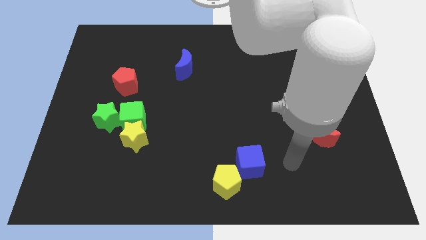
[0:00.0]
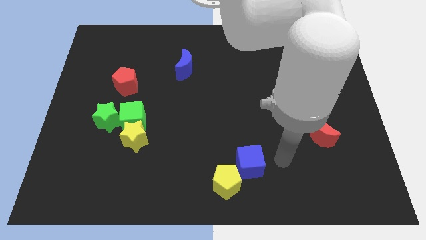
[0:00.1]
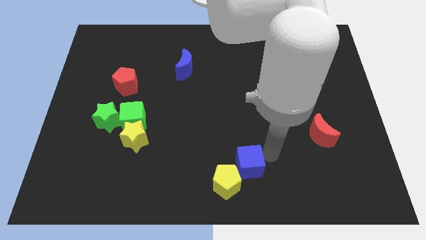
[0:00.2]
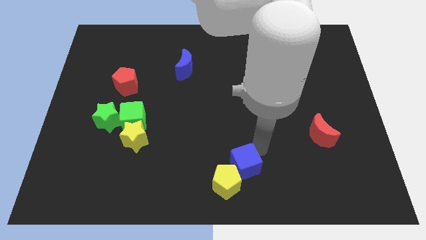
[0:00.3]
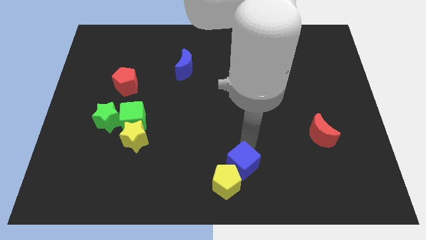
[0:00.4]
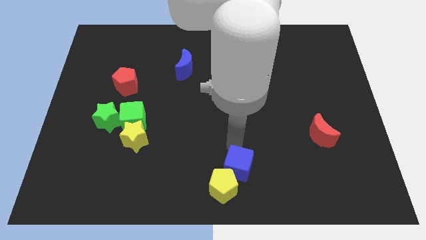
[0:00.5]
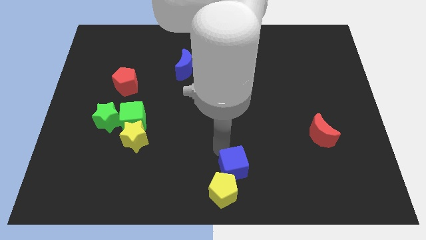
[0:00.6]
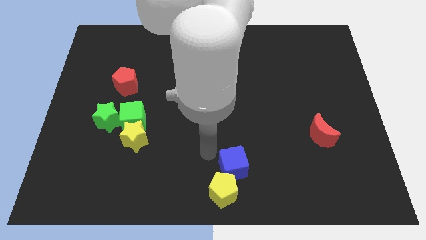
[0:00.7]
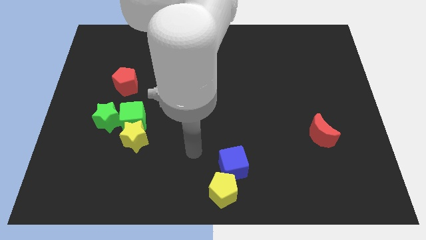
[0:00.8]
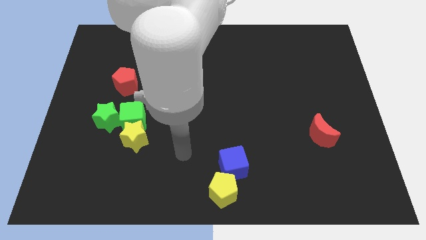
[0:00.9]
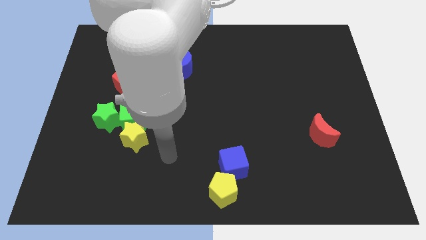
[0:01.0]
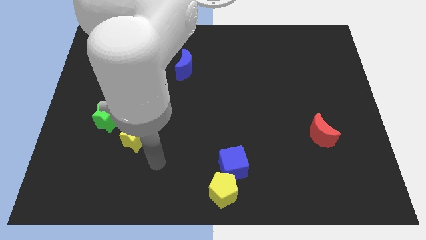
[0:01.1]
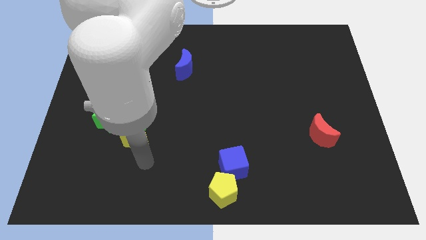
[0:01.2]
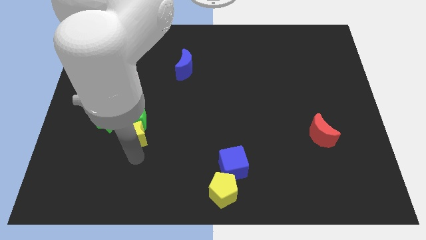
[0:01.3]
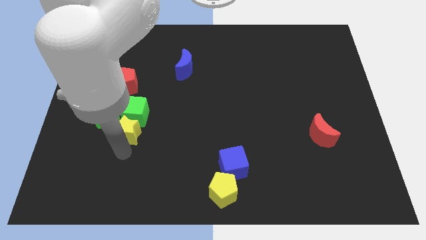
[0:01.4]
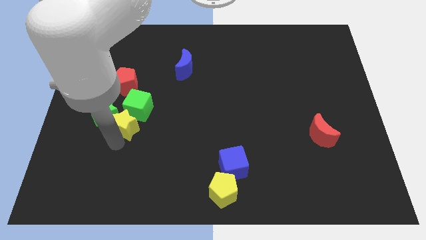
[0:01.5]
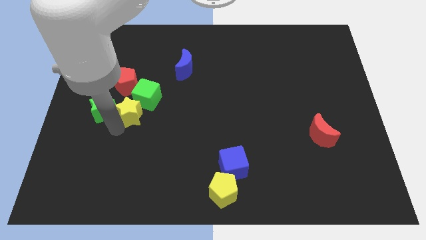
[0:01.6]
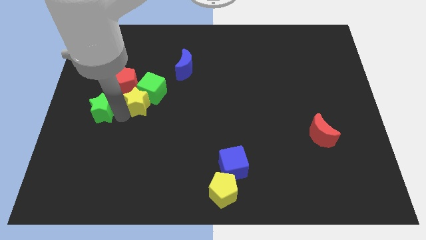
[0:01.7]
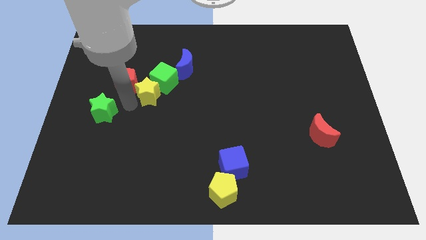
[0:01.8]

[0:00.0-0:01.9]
pull the green cube apart from the yellow star and green star

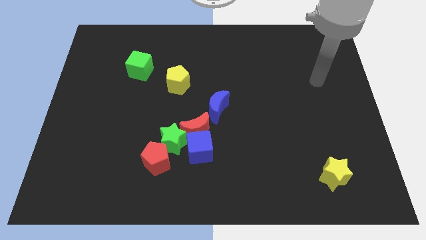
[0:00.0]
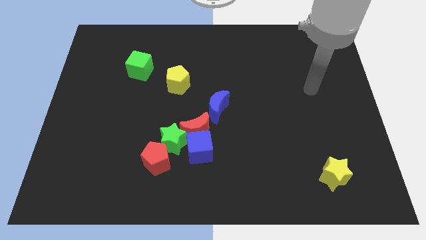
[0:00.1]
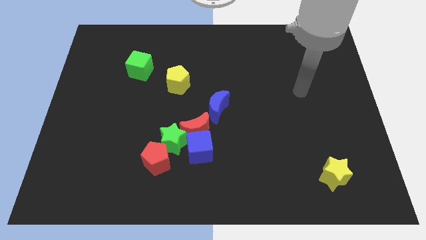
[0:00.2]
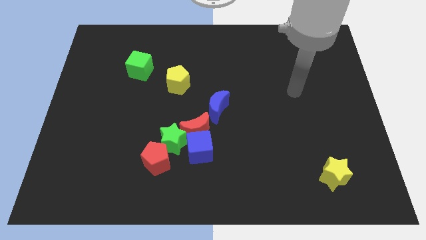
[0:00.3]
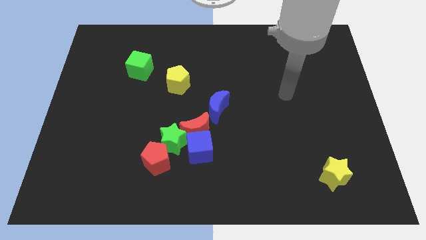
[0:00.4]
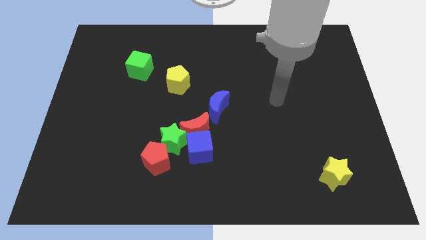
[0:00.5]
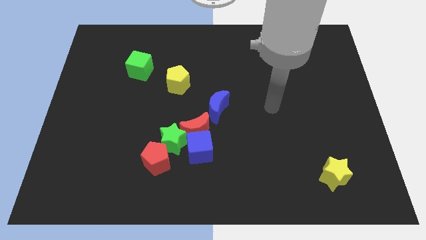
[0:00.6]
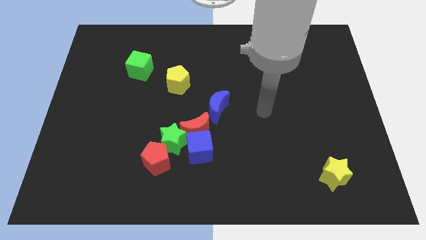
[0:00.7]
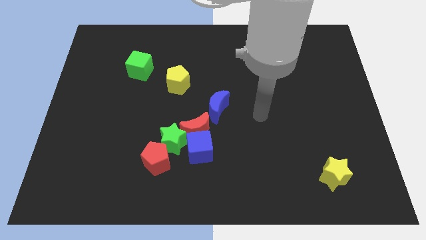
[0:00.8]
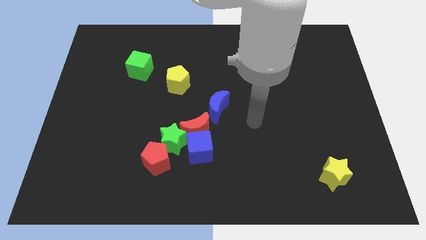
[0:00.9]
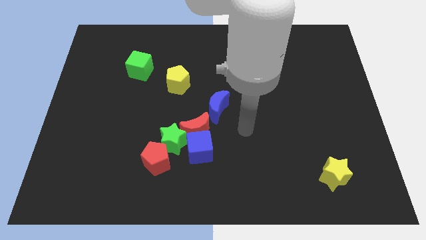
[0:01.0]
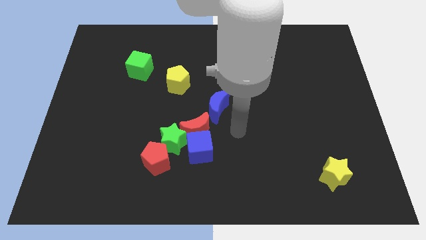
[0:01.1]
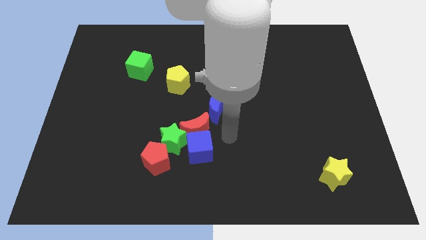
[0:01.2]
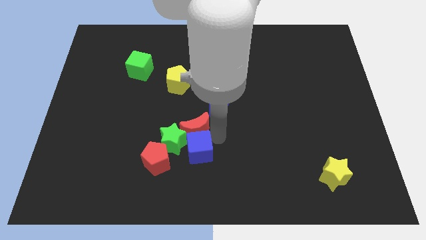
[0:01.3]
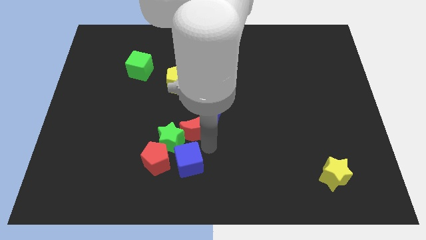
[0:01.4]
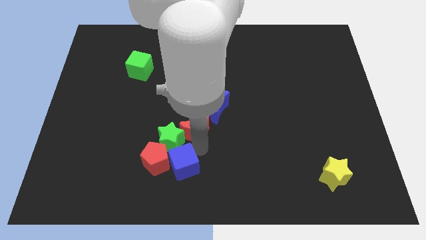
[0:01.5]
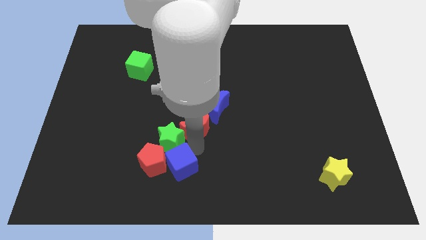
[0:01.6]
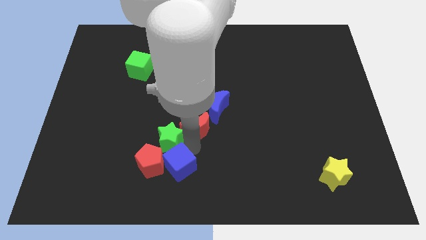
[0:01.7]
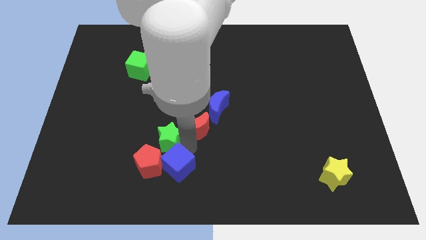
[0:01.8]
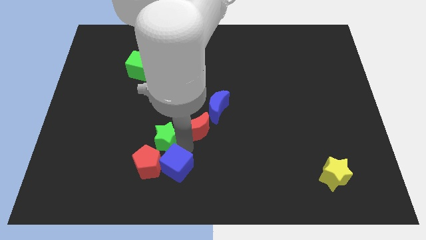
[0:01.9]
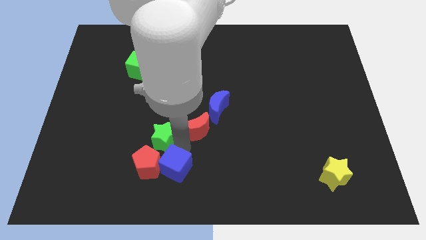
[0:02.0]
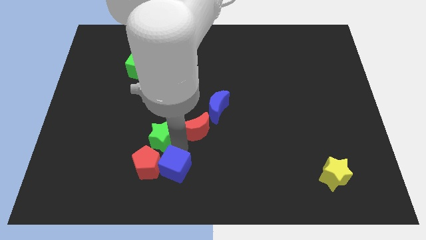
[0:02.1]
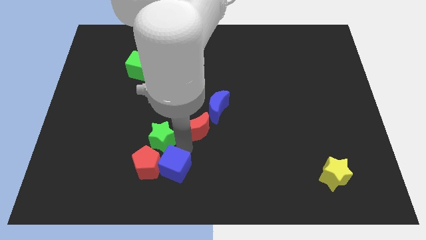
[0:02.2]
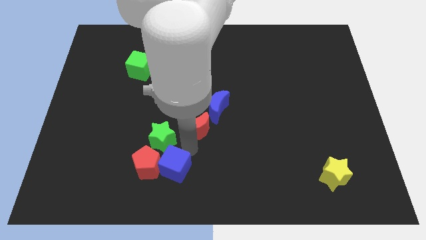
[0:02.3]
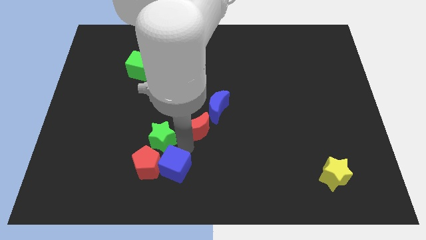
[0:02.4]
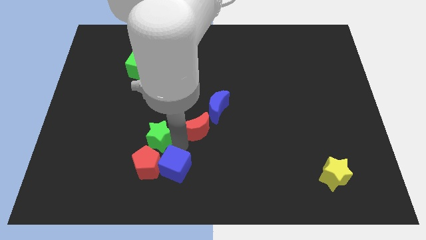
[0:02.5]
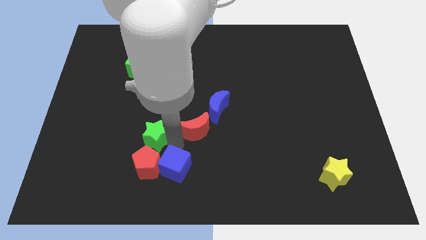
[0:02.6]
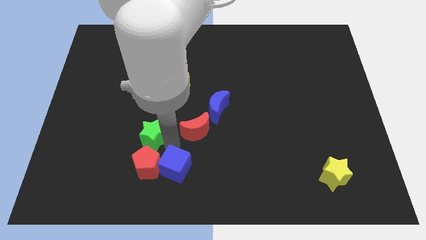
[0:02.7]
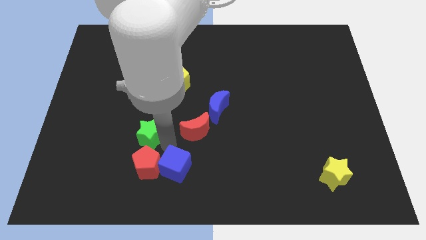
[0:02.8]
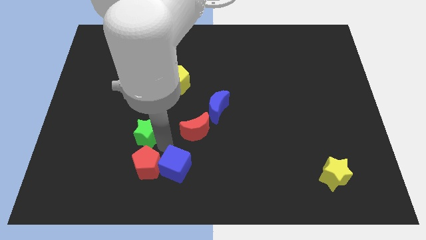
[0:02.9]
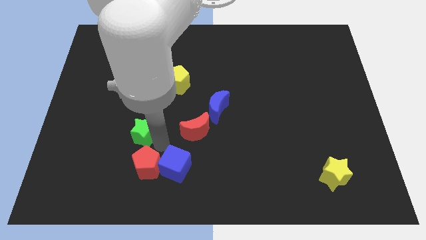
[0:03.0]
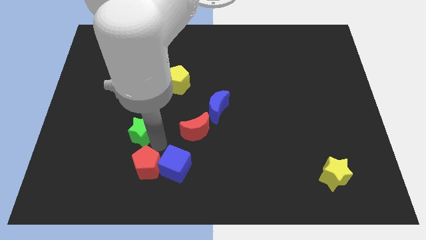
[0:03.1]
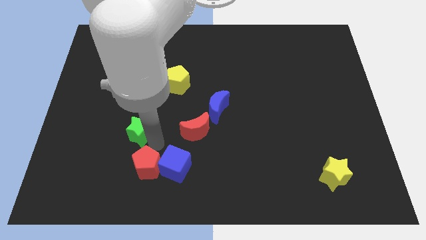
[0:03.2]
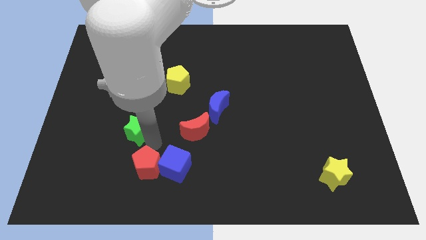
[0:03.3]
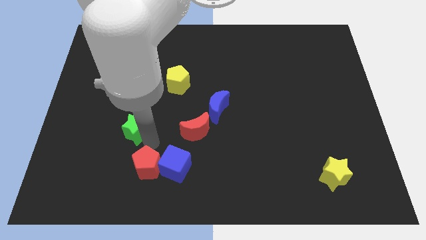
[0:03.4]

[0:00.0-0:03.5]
pull the green star apart from the group

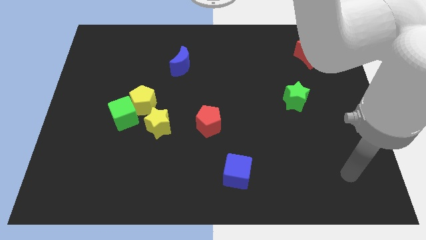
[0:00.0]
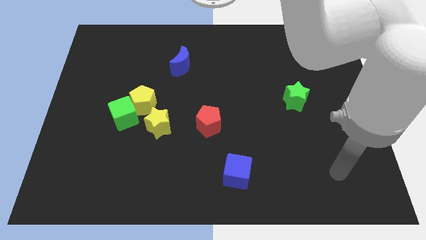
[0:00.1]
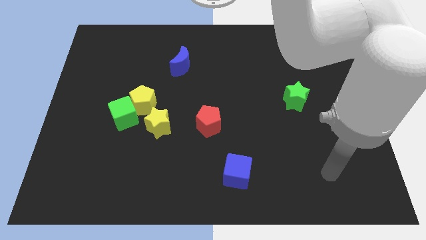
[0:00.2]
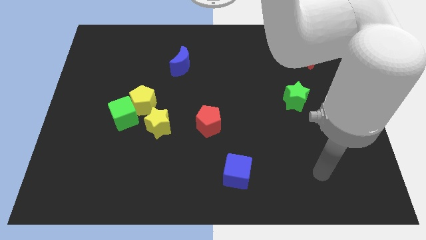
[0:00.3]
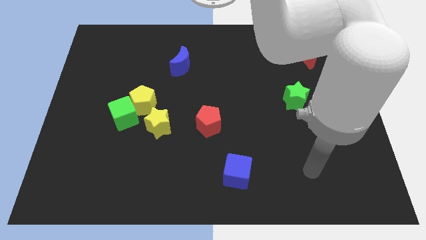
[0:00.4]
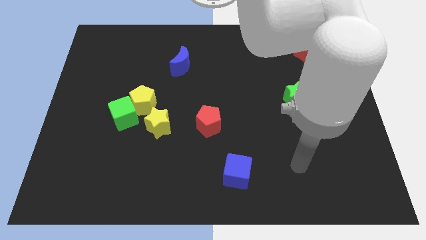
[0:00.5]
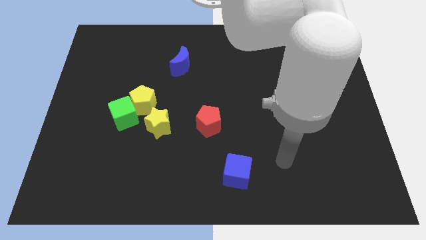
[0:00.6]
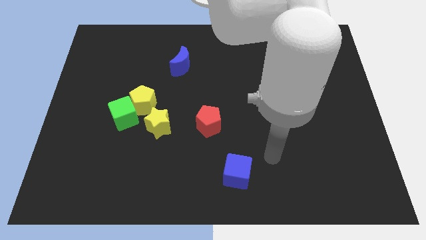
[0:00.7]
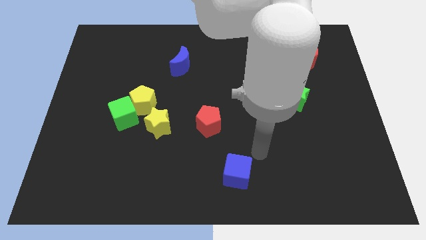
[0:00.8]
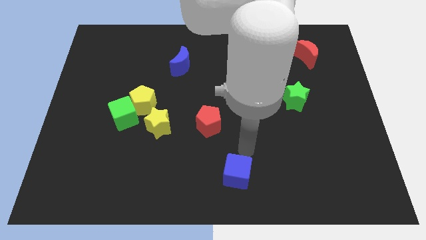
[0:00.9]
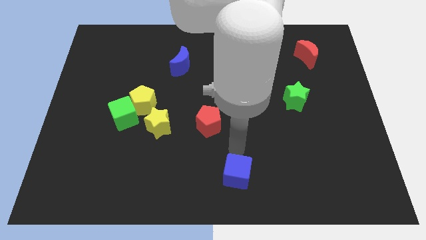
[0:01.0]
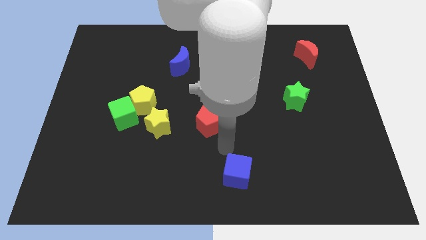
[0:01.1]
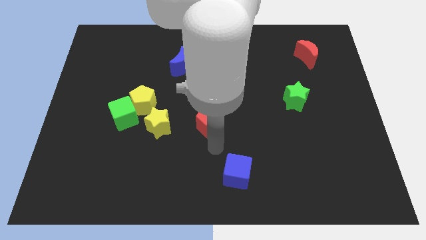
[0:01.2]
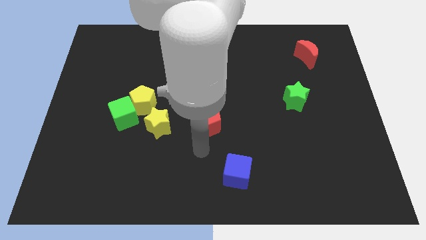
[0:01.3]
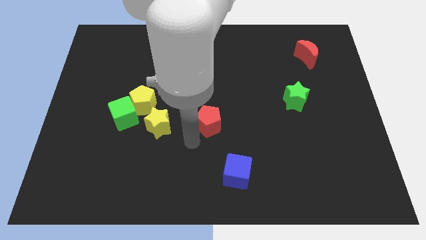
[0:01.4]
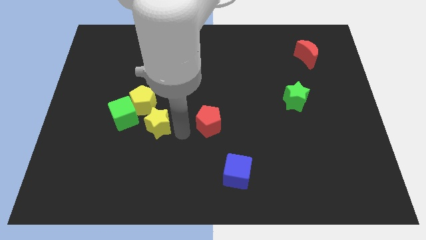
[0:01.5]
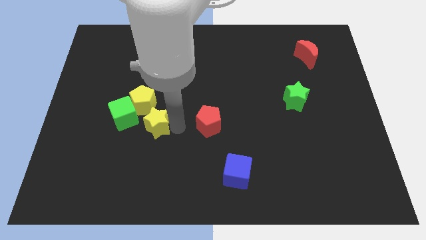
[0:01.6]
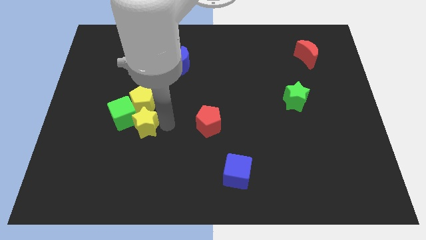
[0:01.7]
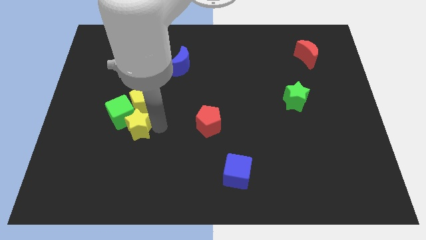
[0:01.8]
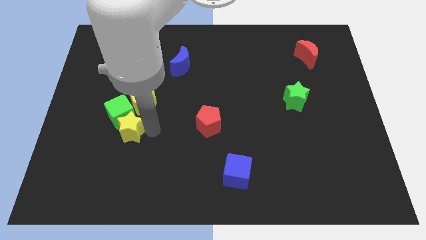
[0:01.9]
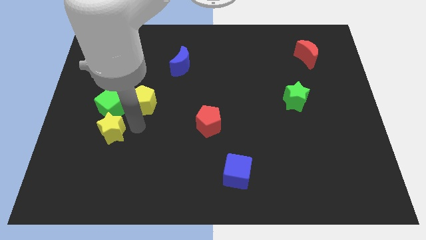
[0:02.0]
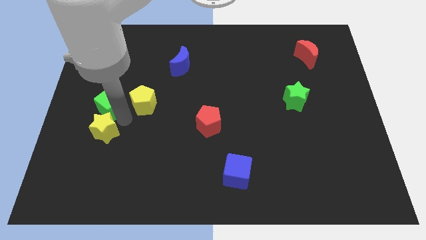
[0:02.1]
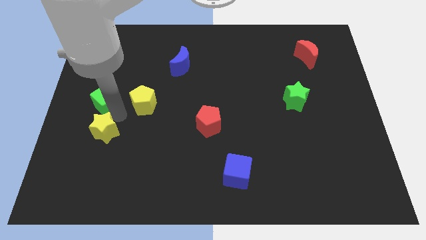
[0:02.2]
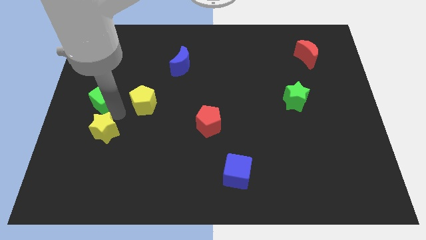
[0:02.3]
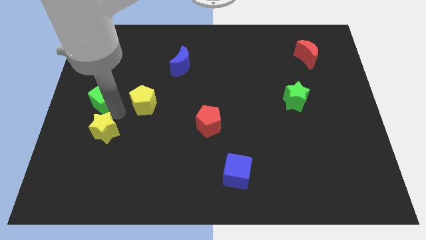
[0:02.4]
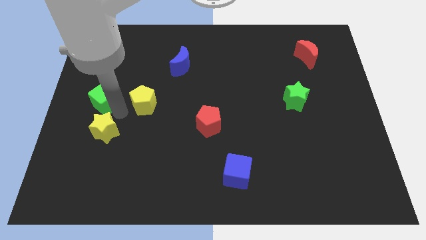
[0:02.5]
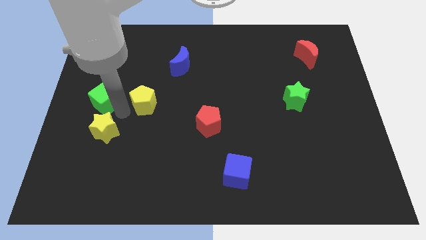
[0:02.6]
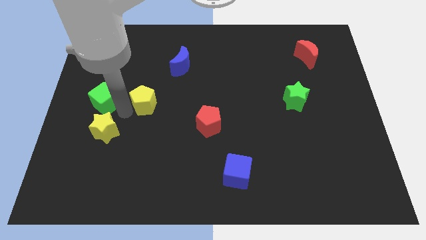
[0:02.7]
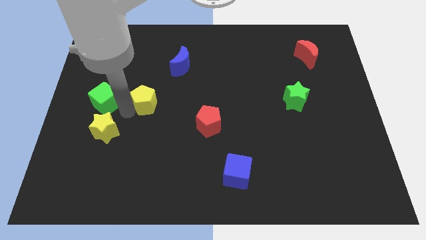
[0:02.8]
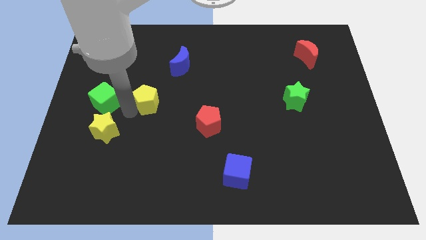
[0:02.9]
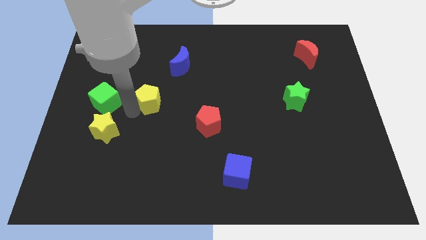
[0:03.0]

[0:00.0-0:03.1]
separate the yellow pentagon from the green cube and yellow star

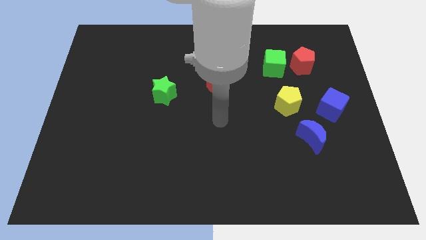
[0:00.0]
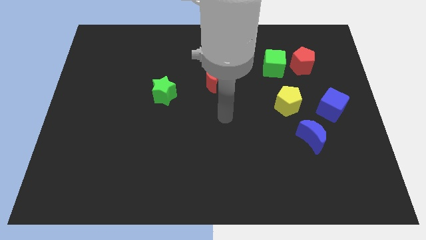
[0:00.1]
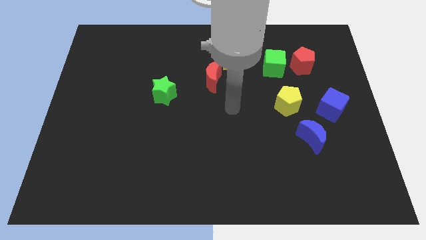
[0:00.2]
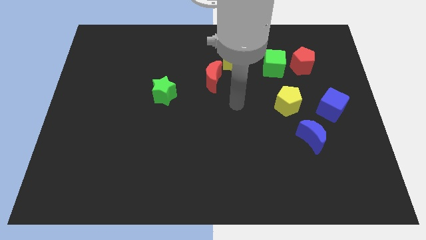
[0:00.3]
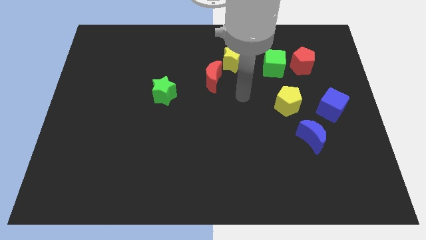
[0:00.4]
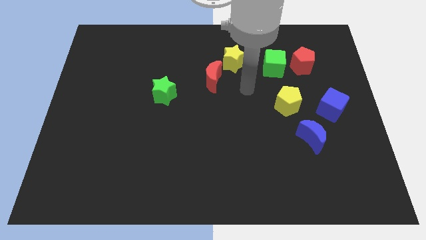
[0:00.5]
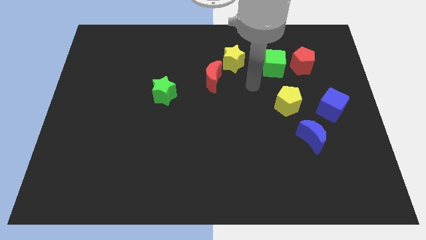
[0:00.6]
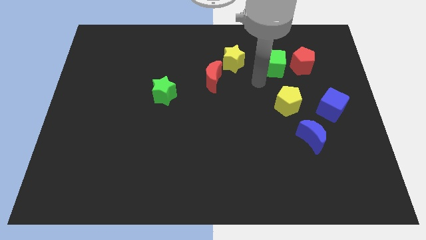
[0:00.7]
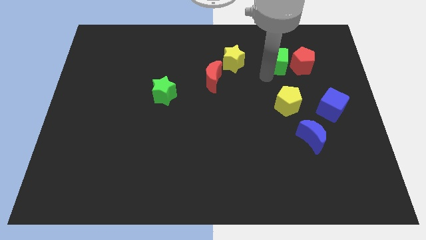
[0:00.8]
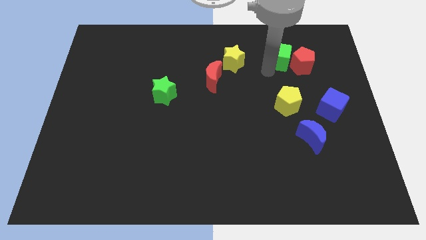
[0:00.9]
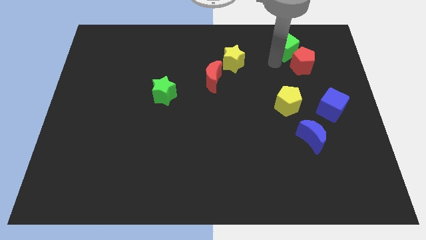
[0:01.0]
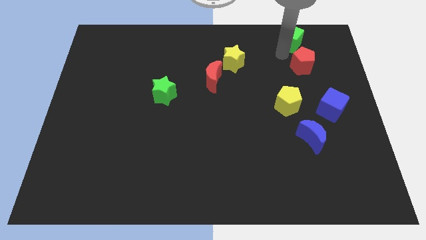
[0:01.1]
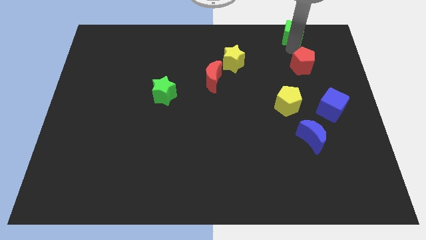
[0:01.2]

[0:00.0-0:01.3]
pull the red pentagon apart from the green cube
